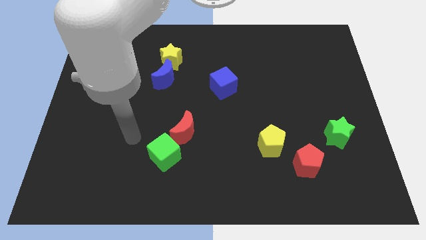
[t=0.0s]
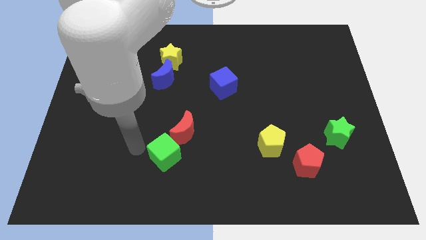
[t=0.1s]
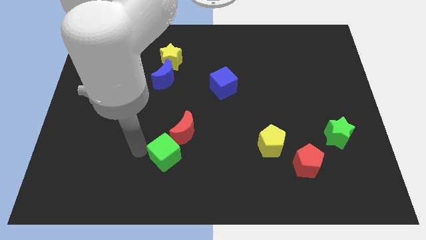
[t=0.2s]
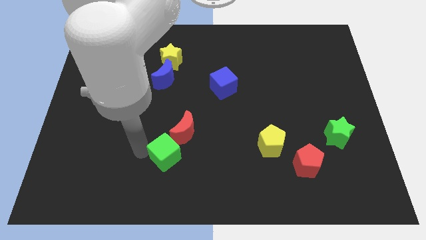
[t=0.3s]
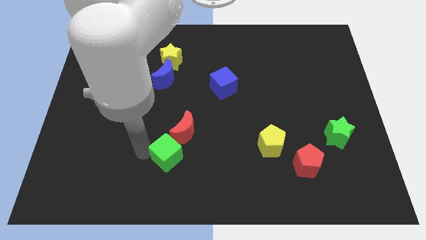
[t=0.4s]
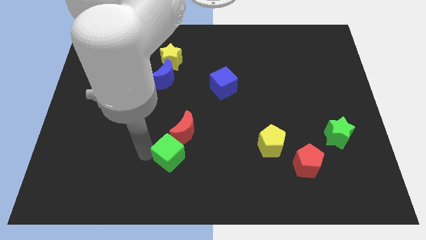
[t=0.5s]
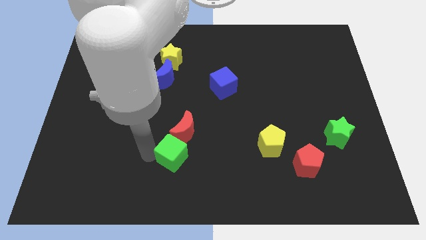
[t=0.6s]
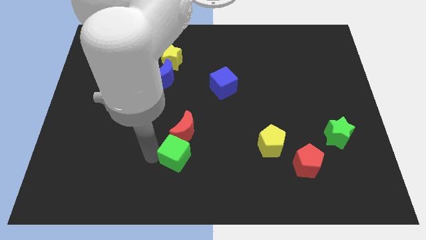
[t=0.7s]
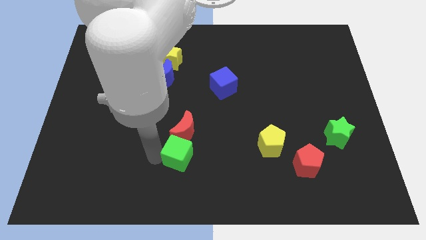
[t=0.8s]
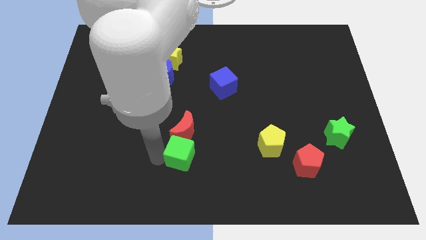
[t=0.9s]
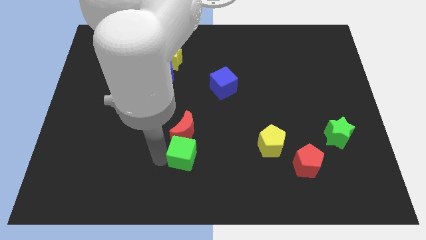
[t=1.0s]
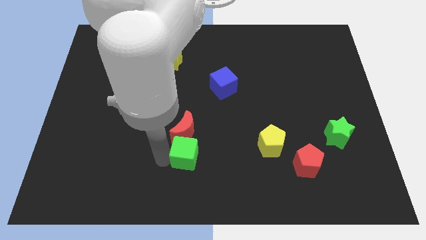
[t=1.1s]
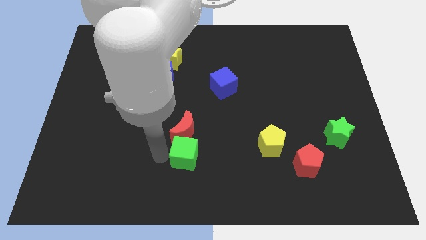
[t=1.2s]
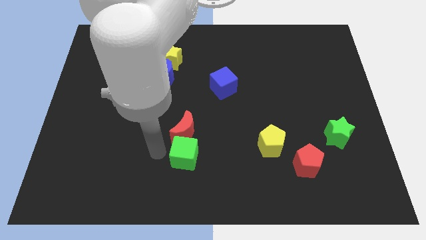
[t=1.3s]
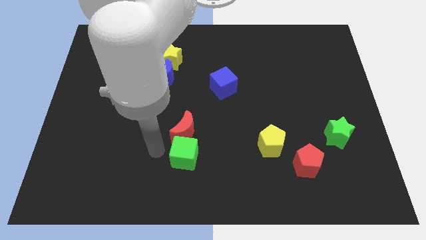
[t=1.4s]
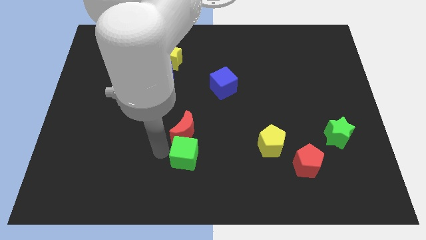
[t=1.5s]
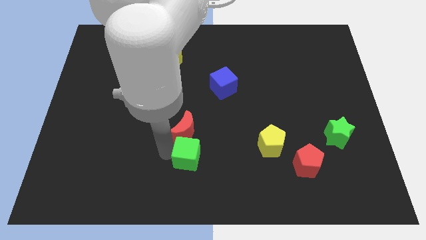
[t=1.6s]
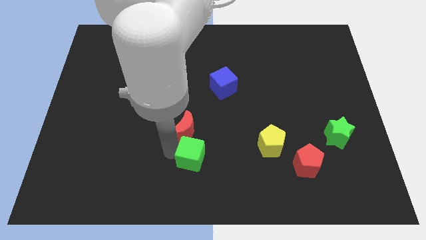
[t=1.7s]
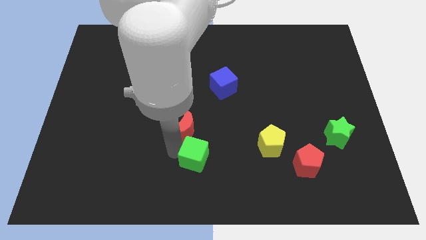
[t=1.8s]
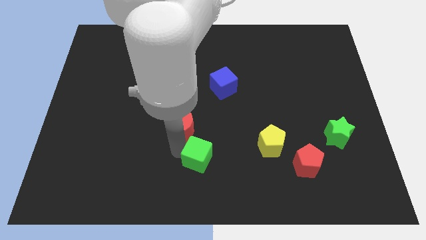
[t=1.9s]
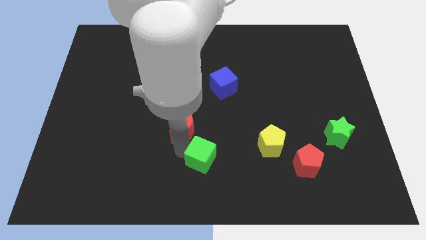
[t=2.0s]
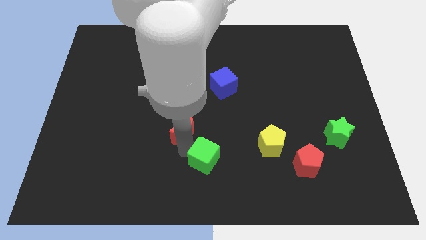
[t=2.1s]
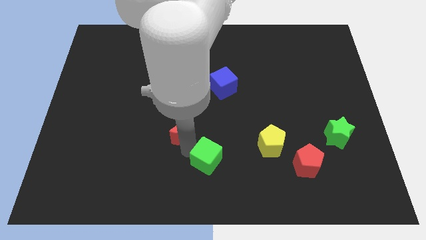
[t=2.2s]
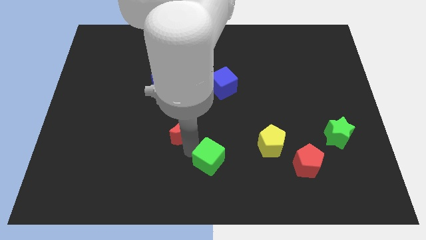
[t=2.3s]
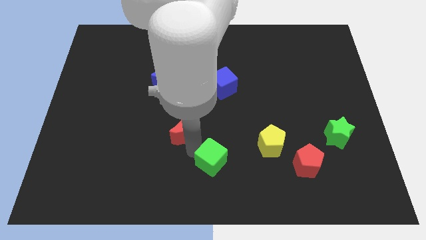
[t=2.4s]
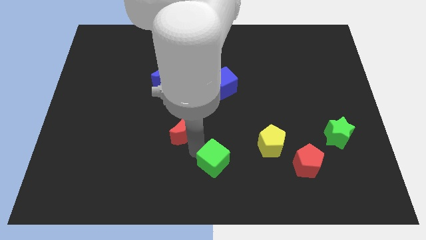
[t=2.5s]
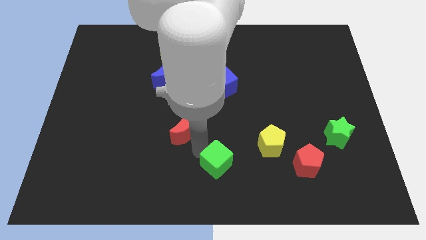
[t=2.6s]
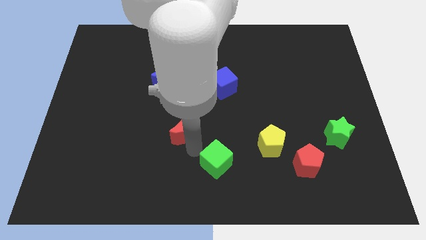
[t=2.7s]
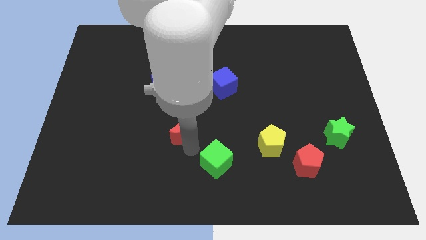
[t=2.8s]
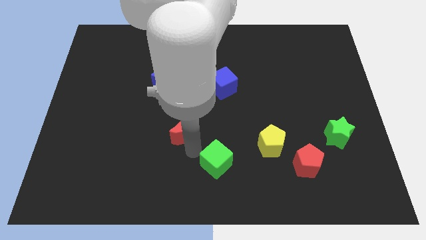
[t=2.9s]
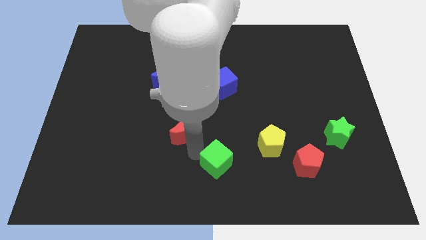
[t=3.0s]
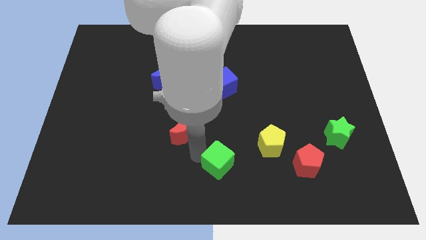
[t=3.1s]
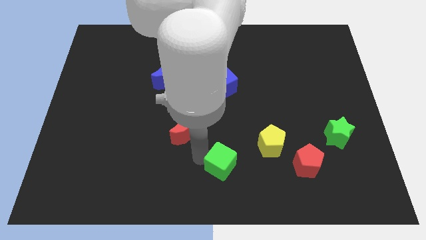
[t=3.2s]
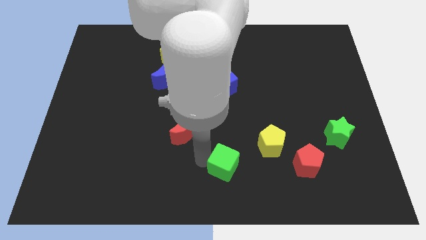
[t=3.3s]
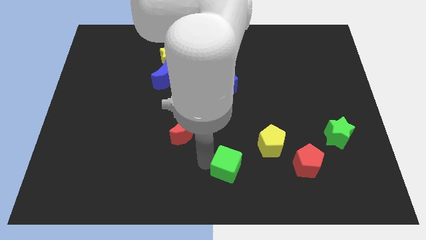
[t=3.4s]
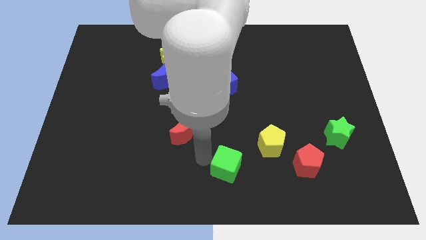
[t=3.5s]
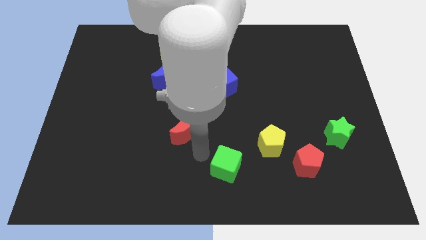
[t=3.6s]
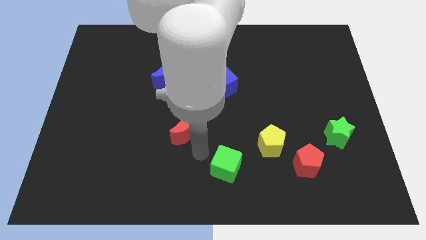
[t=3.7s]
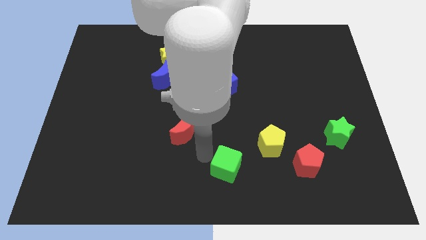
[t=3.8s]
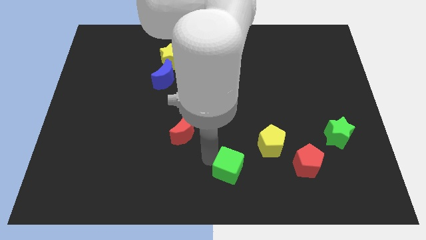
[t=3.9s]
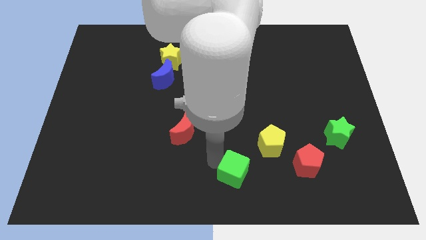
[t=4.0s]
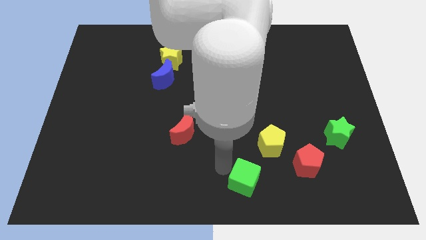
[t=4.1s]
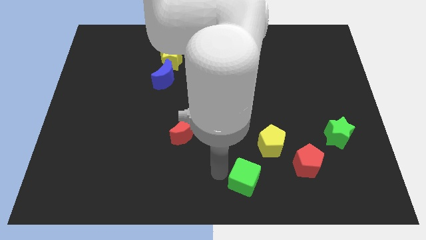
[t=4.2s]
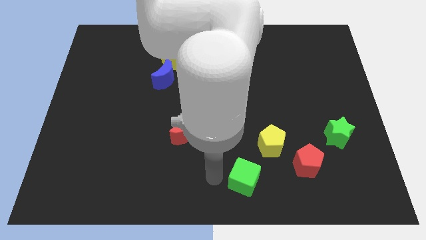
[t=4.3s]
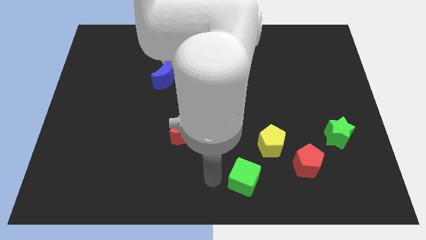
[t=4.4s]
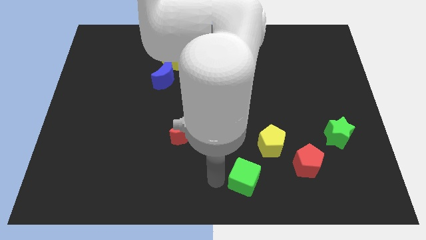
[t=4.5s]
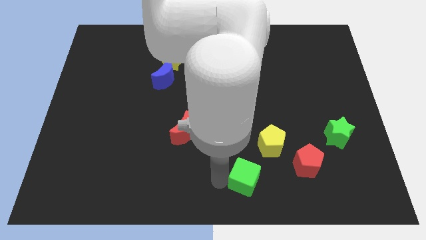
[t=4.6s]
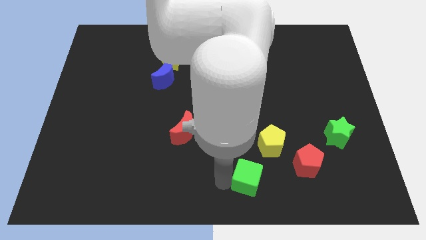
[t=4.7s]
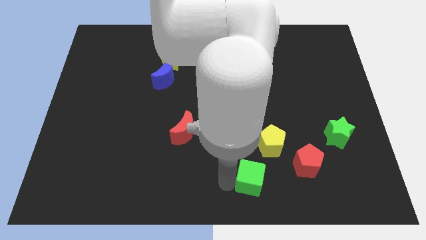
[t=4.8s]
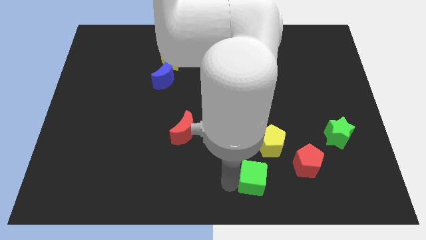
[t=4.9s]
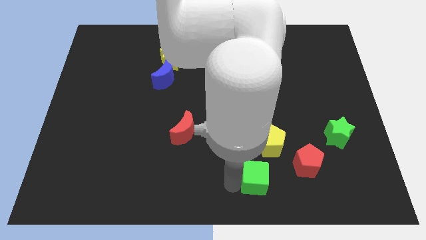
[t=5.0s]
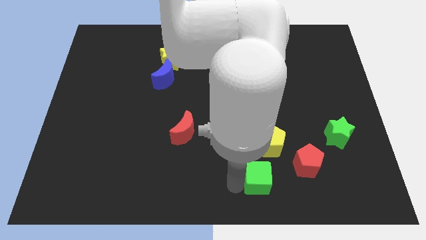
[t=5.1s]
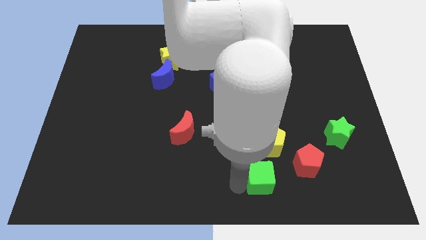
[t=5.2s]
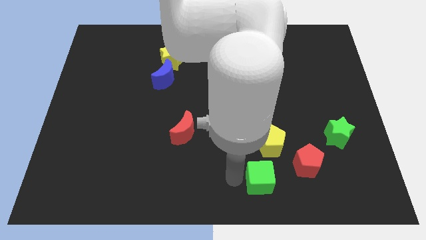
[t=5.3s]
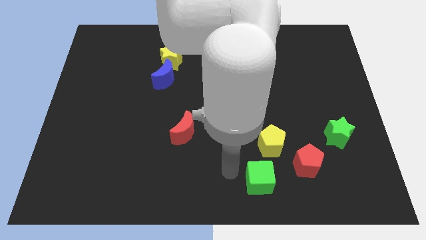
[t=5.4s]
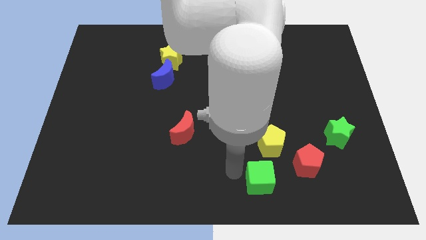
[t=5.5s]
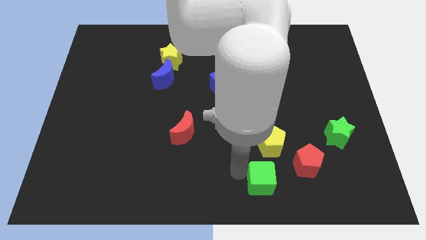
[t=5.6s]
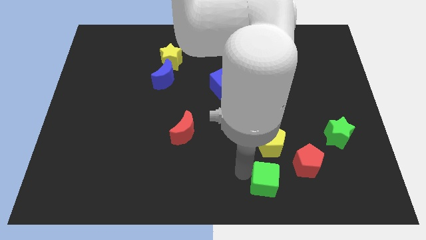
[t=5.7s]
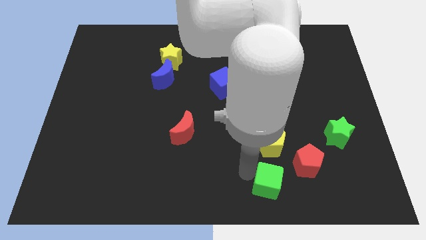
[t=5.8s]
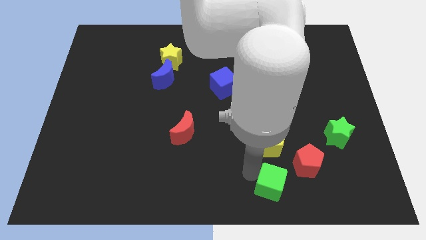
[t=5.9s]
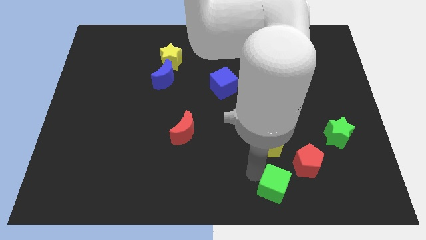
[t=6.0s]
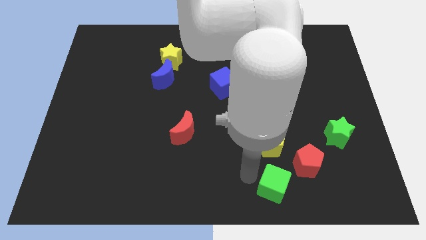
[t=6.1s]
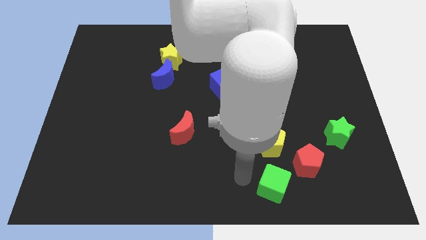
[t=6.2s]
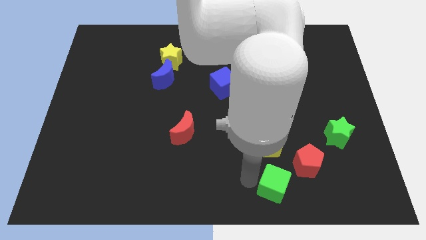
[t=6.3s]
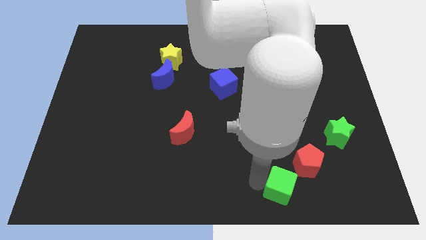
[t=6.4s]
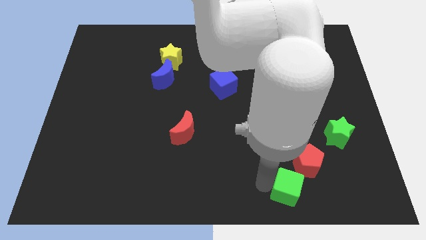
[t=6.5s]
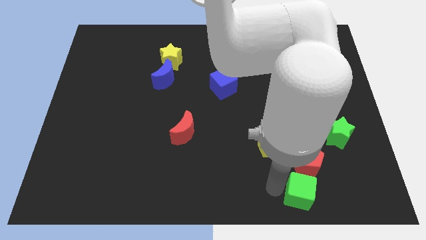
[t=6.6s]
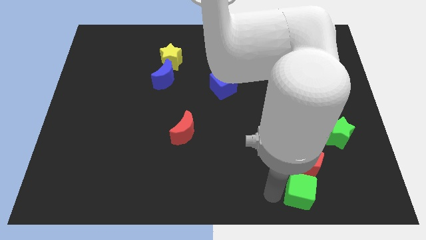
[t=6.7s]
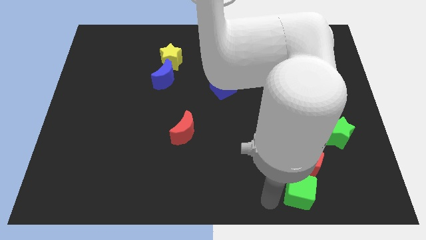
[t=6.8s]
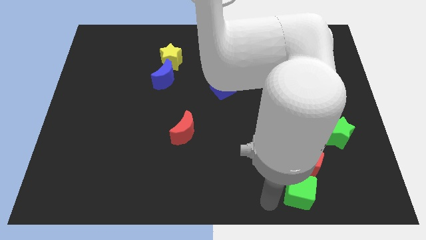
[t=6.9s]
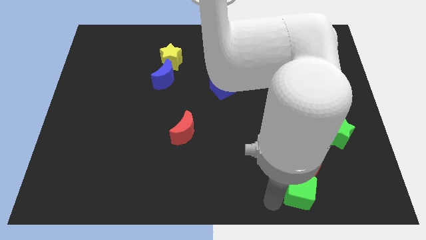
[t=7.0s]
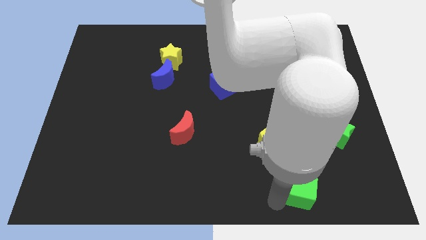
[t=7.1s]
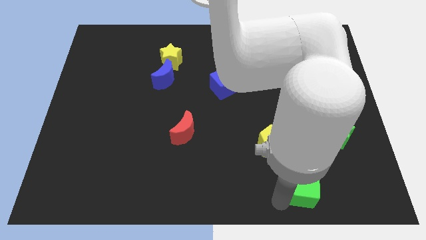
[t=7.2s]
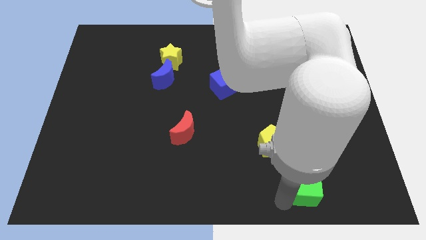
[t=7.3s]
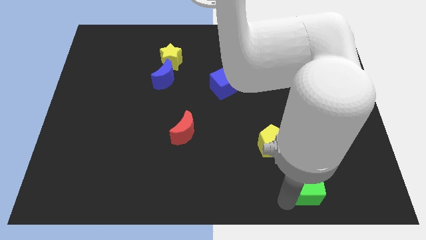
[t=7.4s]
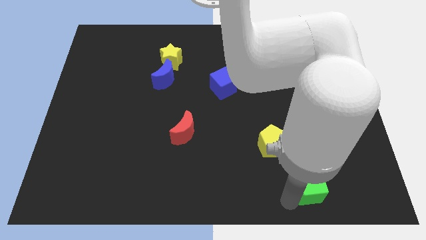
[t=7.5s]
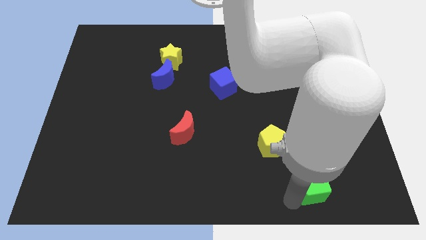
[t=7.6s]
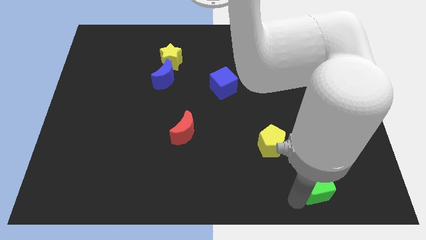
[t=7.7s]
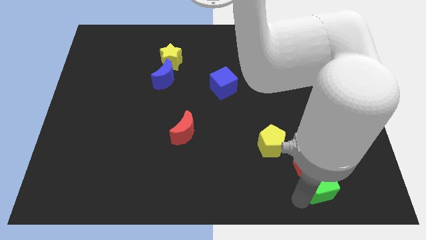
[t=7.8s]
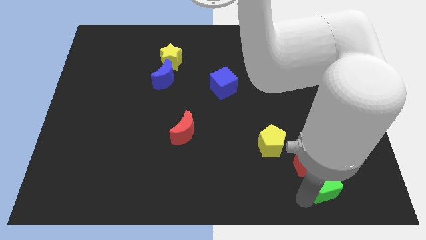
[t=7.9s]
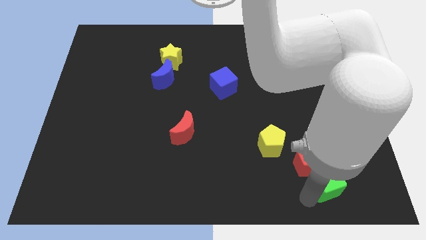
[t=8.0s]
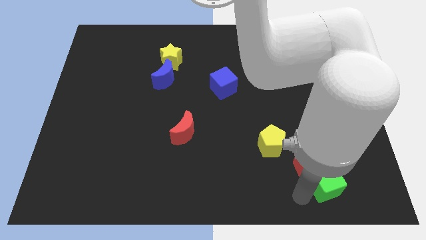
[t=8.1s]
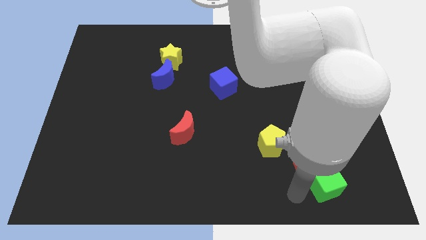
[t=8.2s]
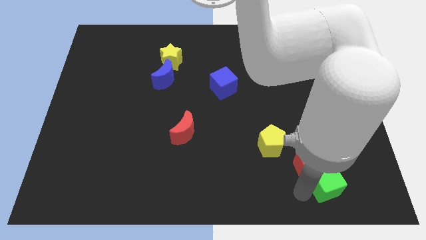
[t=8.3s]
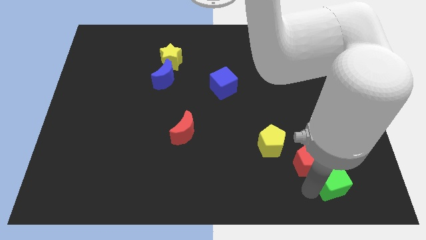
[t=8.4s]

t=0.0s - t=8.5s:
slide the green cube to the bottom side of the green star
